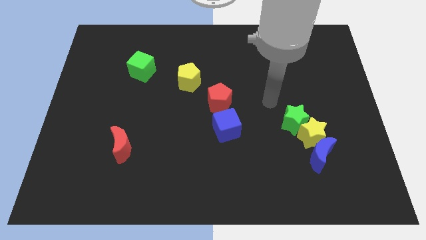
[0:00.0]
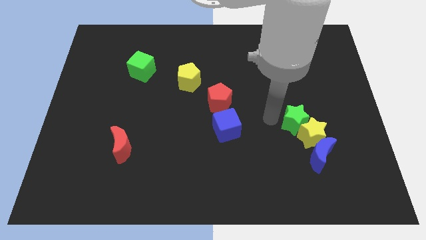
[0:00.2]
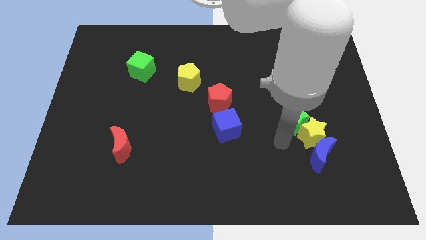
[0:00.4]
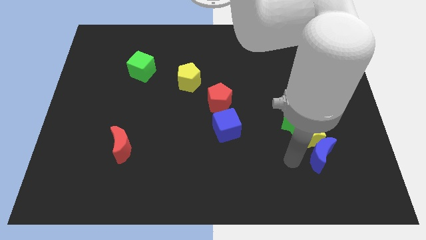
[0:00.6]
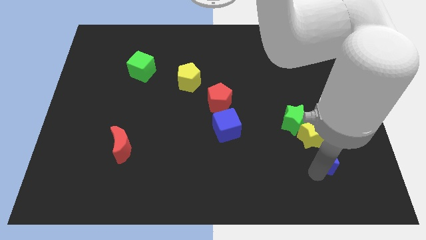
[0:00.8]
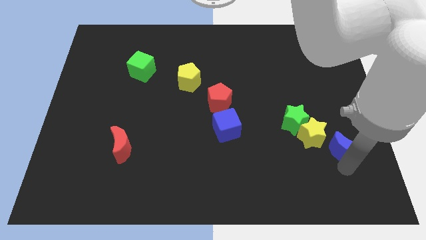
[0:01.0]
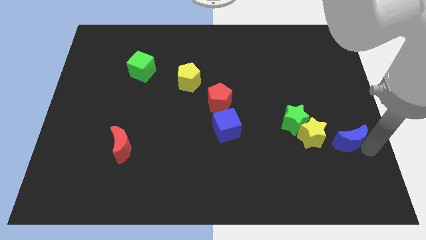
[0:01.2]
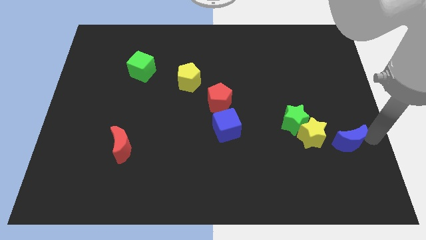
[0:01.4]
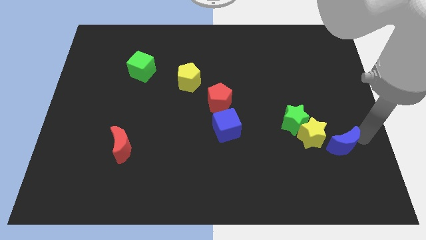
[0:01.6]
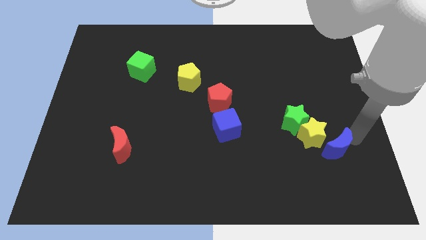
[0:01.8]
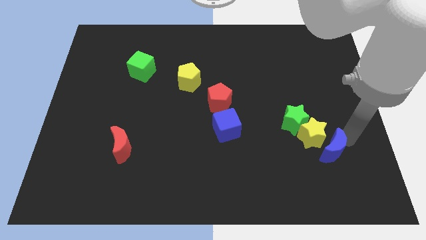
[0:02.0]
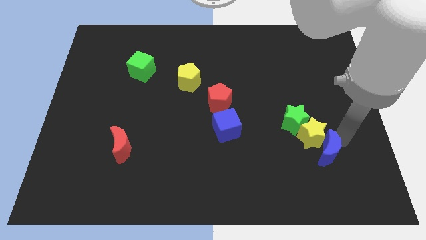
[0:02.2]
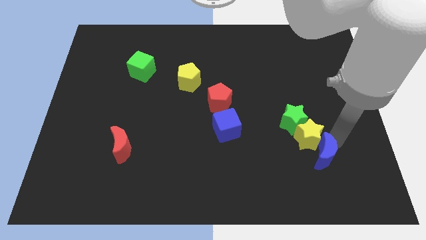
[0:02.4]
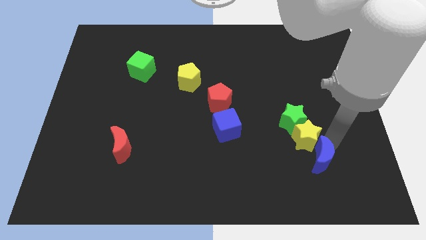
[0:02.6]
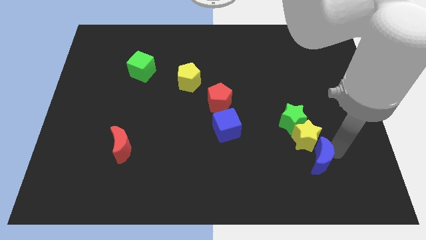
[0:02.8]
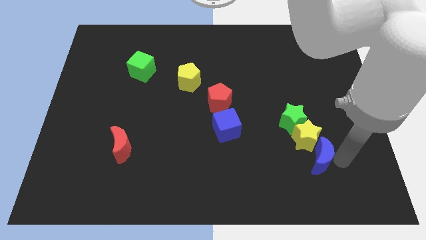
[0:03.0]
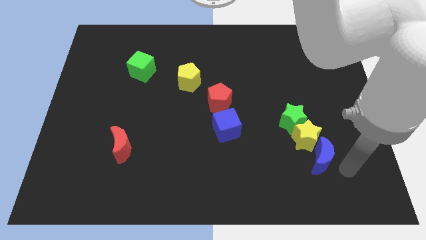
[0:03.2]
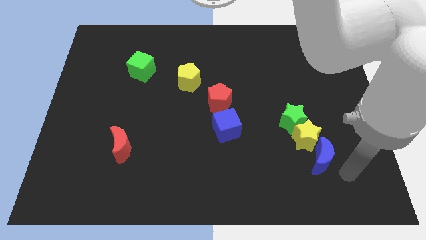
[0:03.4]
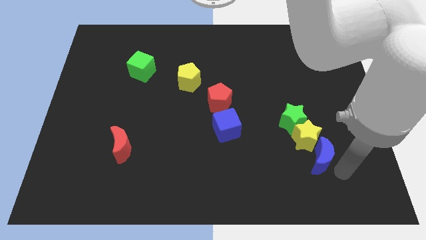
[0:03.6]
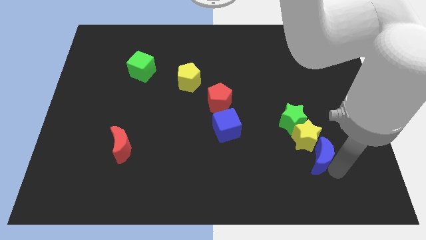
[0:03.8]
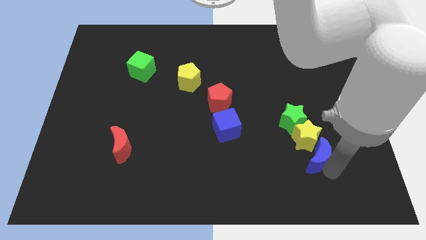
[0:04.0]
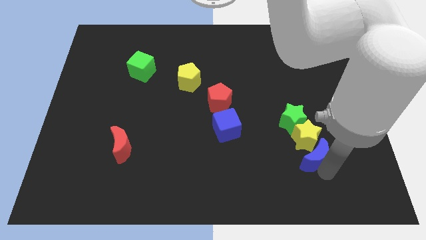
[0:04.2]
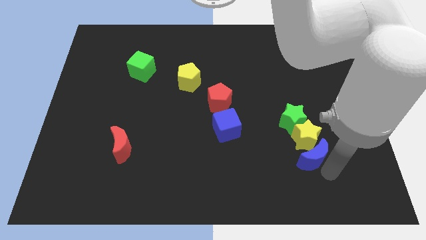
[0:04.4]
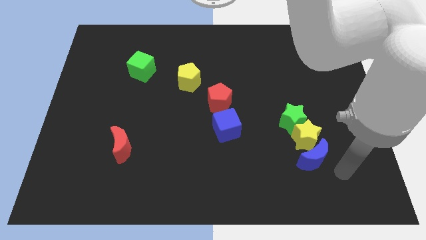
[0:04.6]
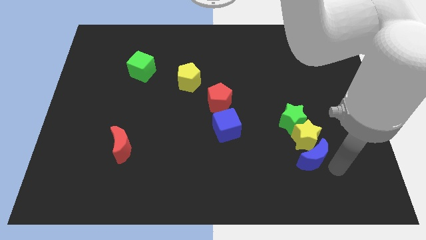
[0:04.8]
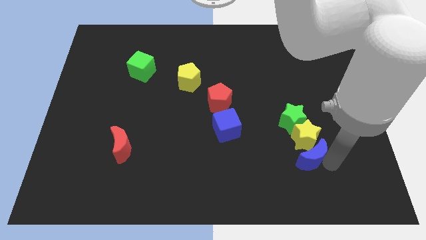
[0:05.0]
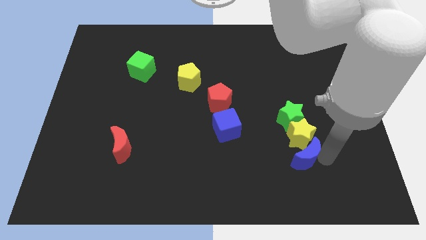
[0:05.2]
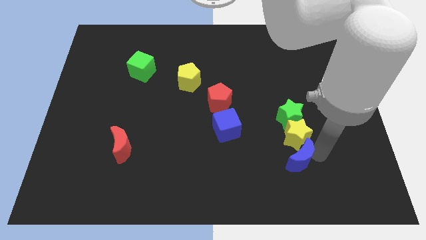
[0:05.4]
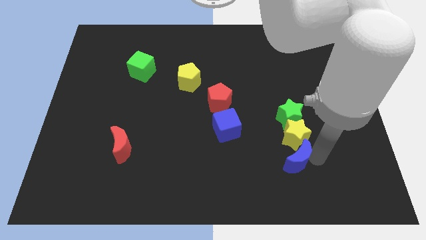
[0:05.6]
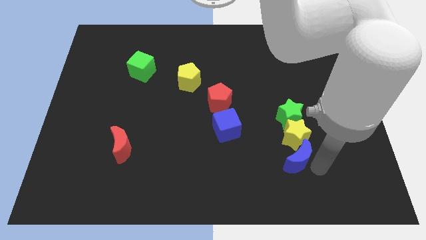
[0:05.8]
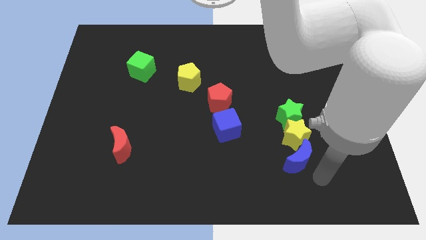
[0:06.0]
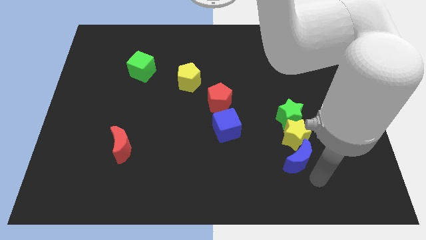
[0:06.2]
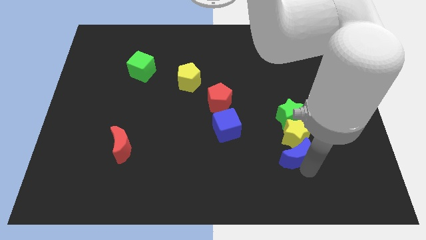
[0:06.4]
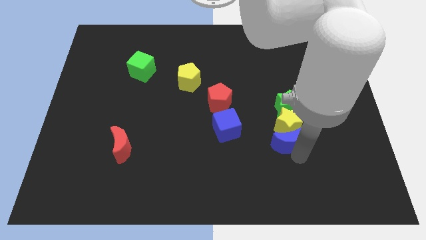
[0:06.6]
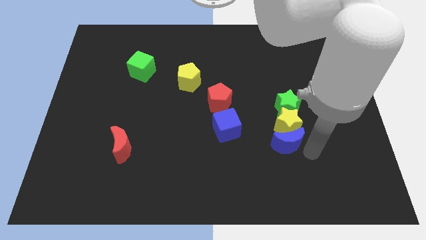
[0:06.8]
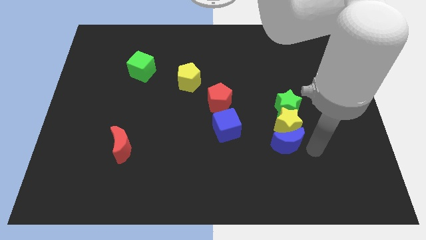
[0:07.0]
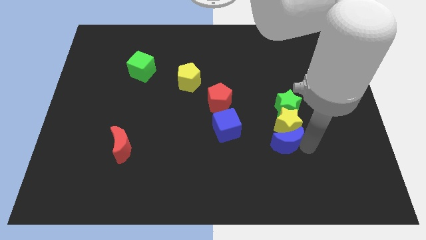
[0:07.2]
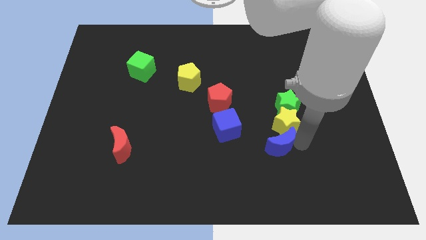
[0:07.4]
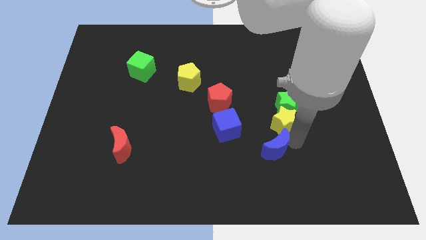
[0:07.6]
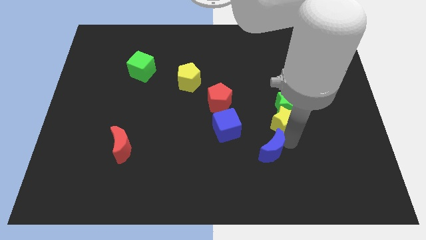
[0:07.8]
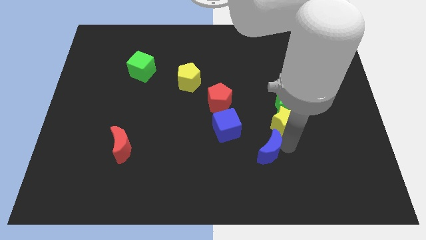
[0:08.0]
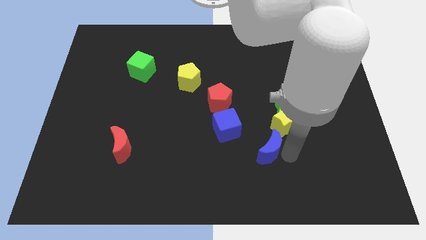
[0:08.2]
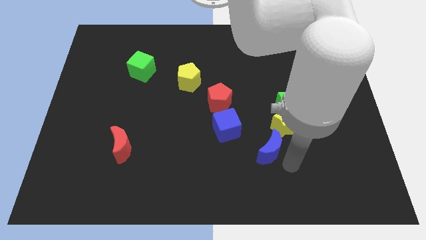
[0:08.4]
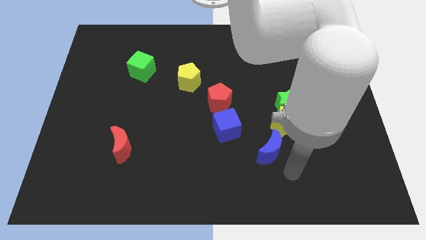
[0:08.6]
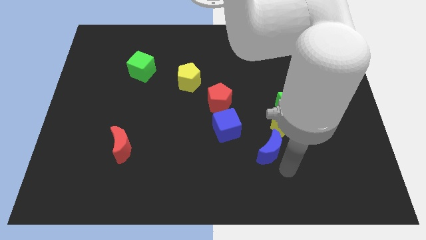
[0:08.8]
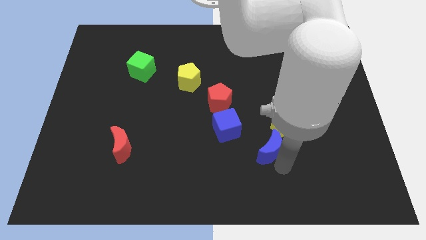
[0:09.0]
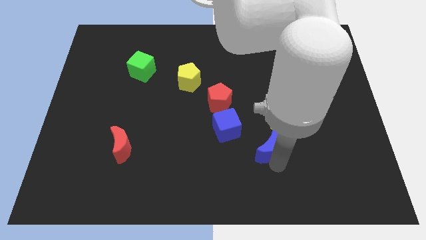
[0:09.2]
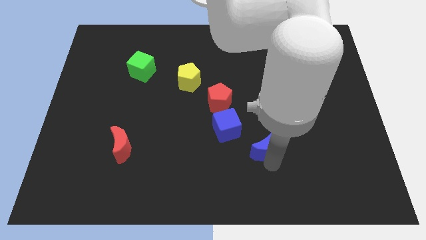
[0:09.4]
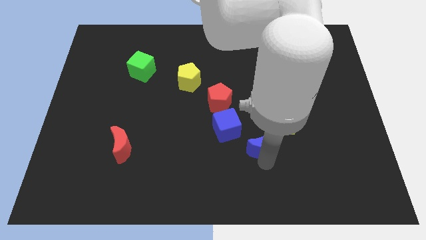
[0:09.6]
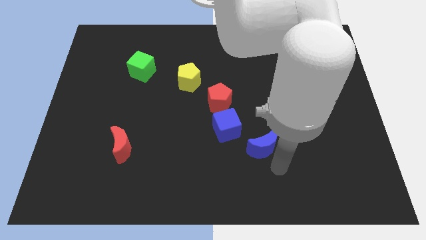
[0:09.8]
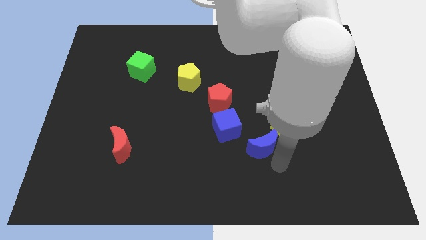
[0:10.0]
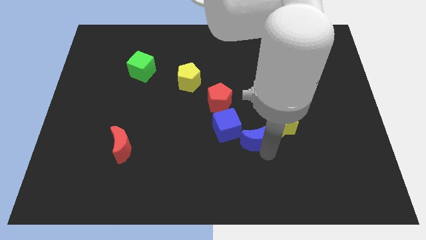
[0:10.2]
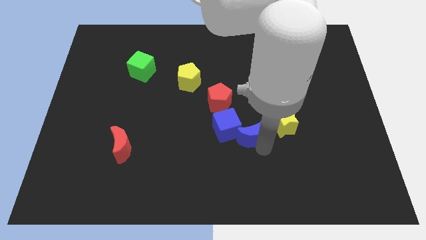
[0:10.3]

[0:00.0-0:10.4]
put the blue moon towards the blue cube
